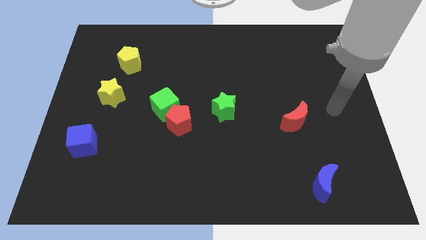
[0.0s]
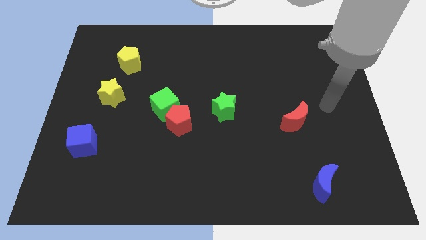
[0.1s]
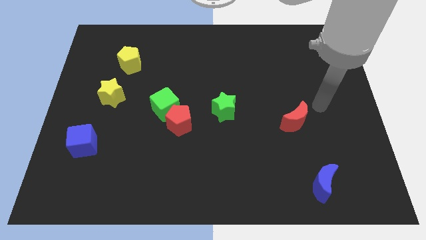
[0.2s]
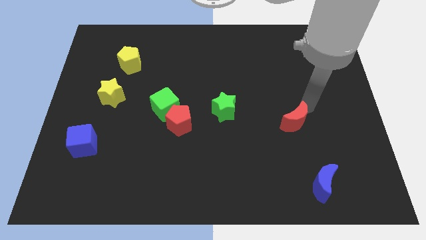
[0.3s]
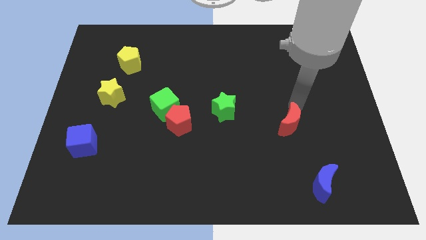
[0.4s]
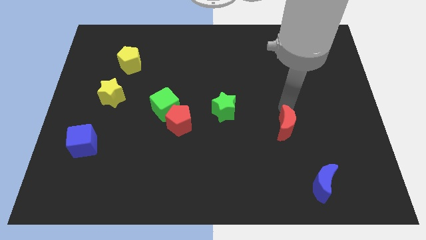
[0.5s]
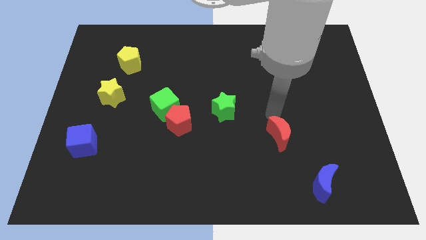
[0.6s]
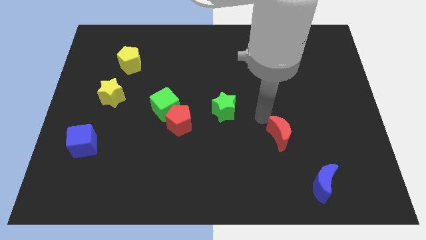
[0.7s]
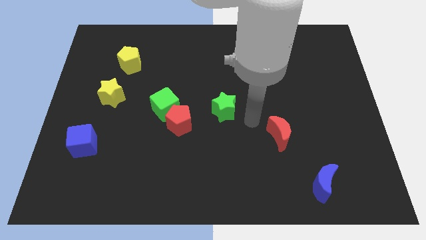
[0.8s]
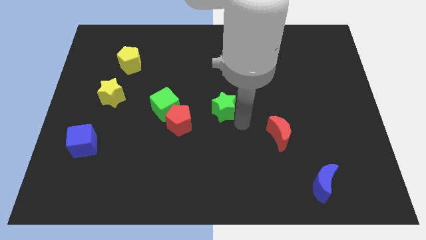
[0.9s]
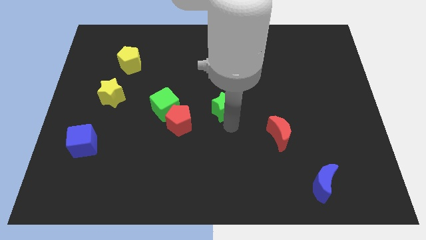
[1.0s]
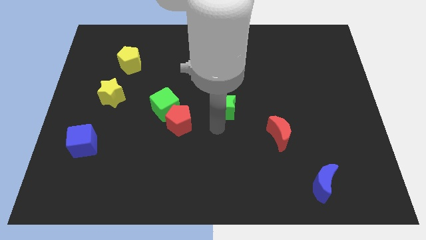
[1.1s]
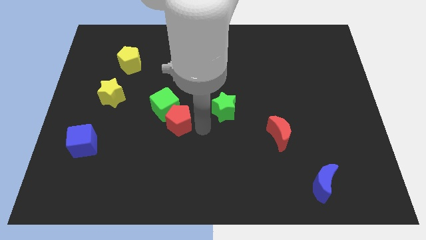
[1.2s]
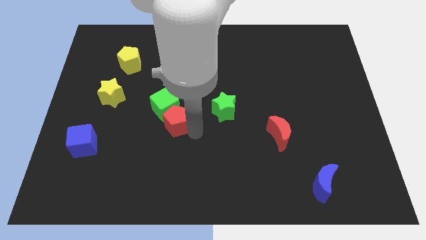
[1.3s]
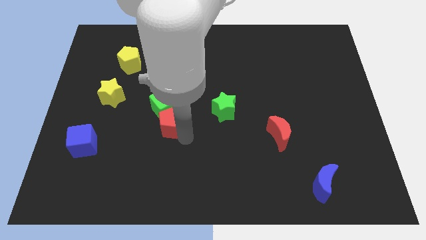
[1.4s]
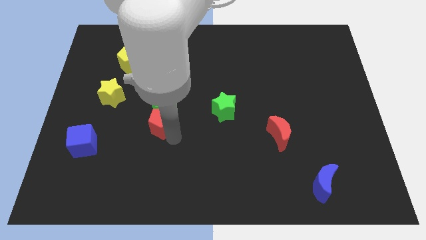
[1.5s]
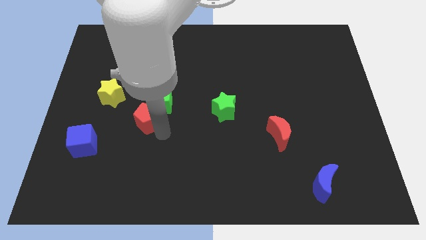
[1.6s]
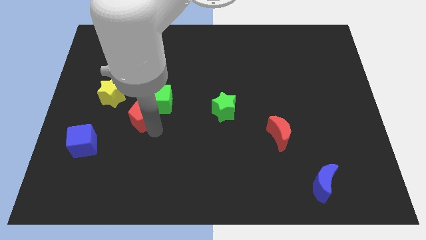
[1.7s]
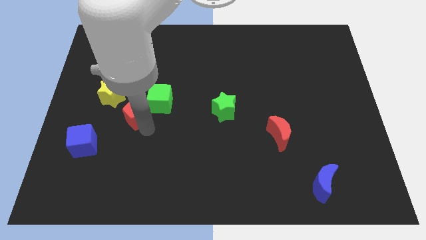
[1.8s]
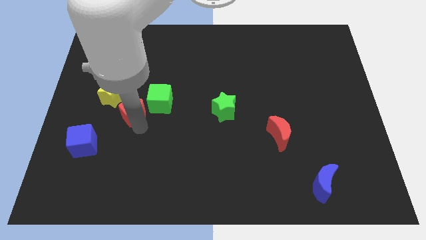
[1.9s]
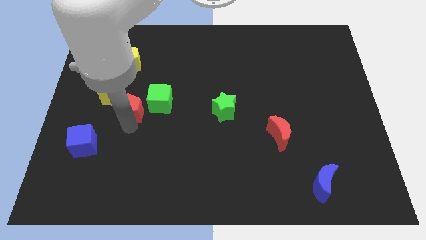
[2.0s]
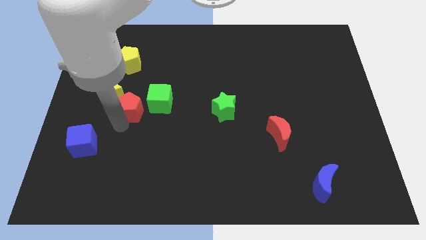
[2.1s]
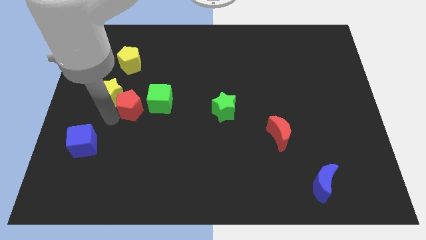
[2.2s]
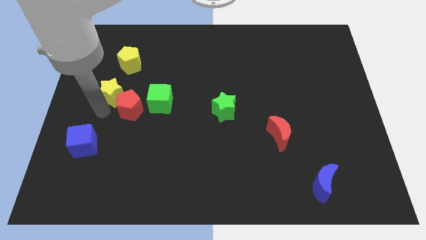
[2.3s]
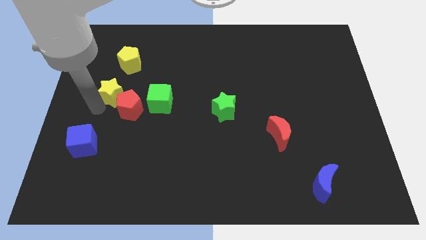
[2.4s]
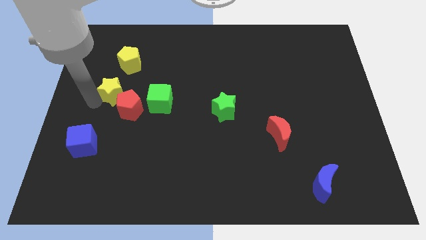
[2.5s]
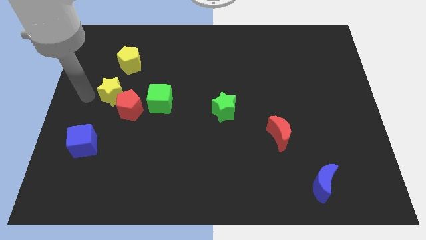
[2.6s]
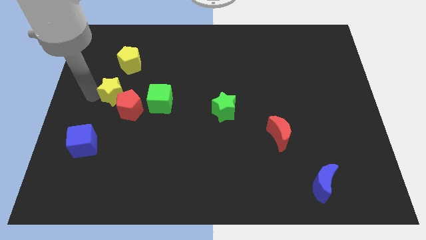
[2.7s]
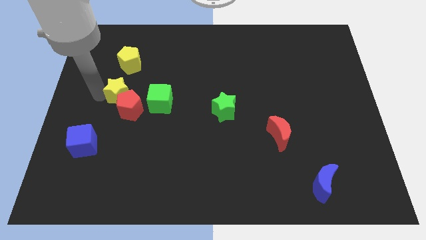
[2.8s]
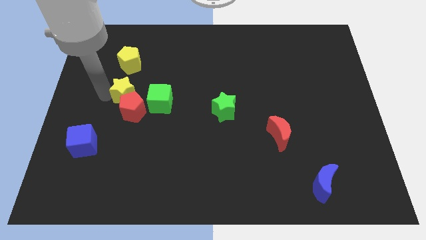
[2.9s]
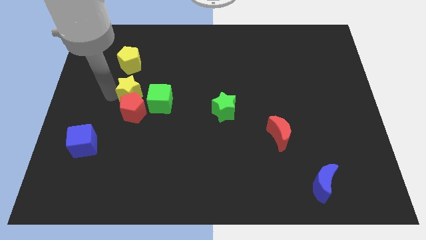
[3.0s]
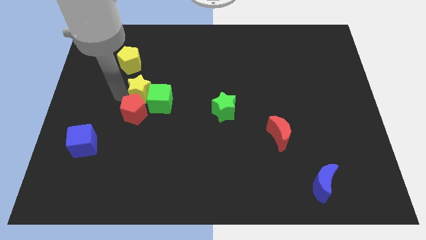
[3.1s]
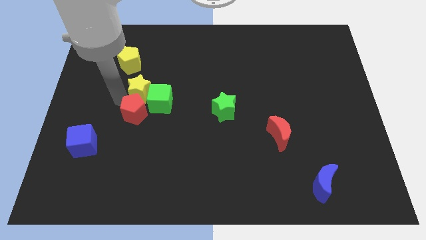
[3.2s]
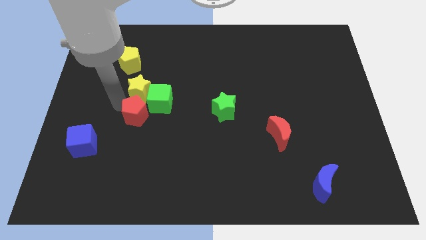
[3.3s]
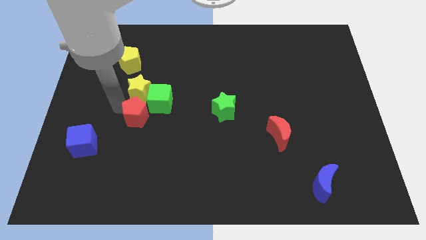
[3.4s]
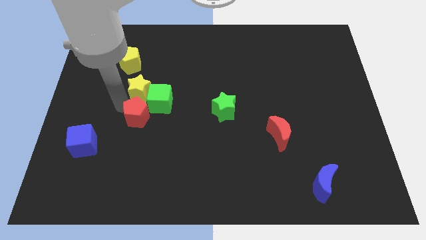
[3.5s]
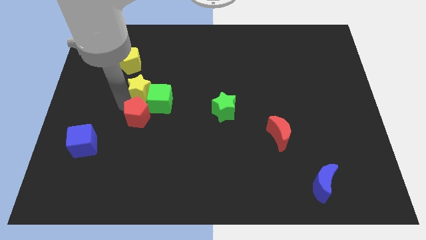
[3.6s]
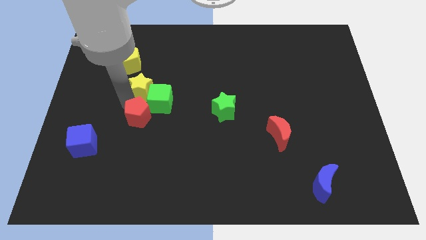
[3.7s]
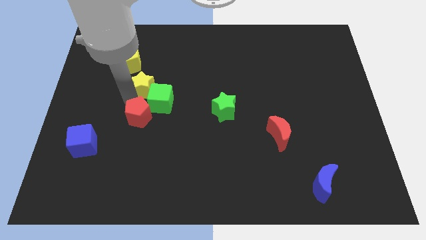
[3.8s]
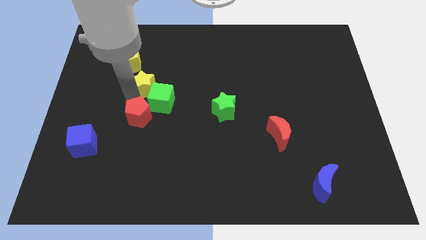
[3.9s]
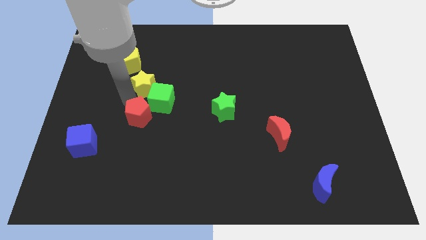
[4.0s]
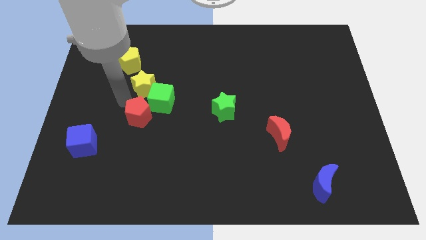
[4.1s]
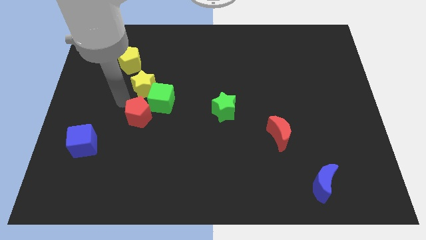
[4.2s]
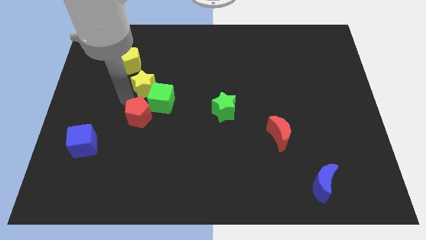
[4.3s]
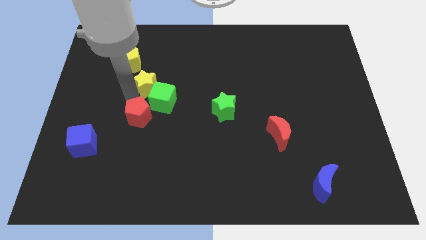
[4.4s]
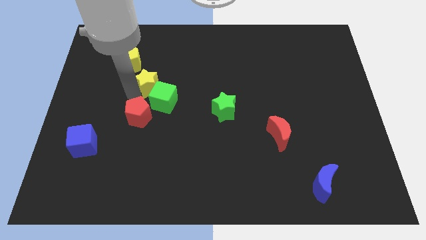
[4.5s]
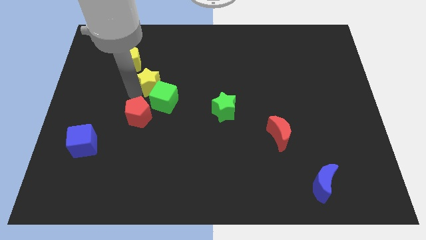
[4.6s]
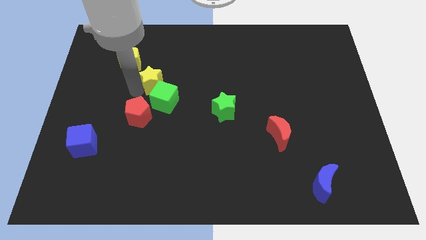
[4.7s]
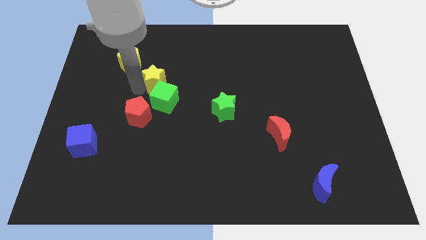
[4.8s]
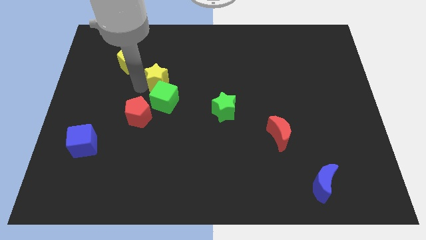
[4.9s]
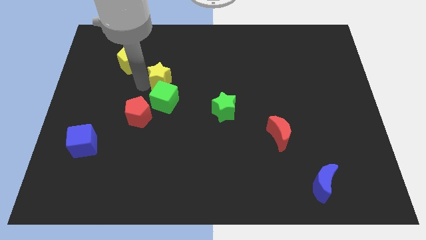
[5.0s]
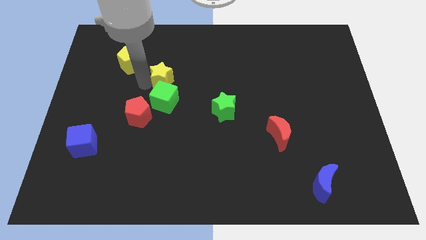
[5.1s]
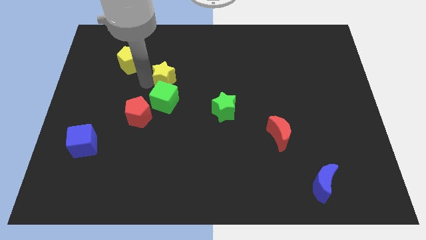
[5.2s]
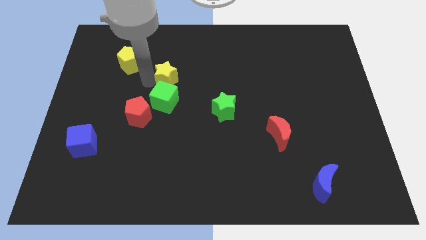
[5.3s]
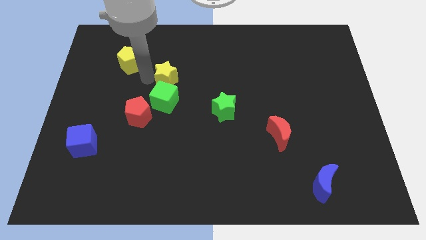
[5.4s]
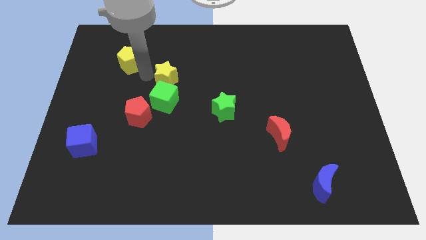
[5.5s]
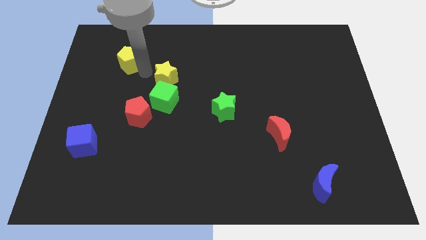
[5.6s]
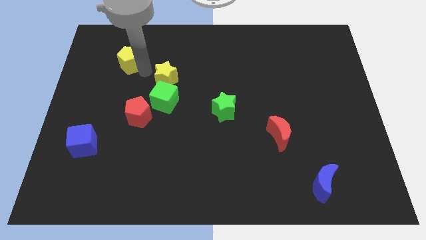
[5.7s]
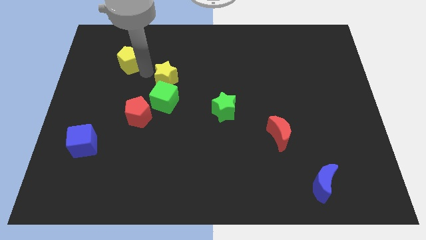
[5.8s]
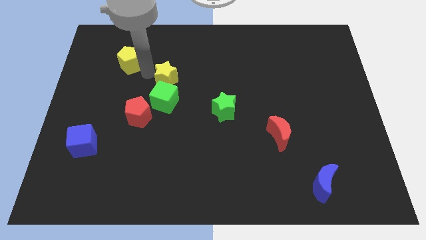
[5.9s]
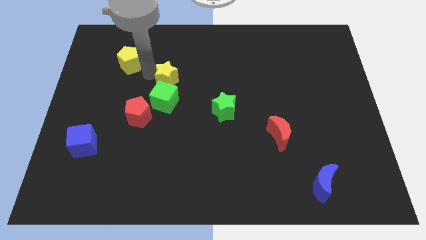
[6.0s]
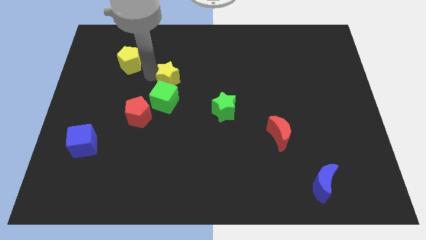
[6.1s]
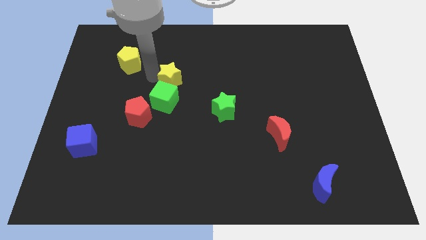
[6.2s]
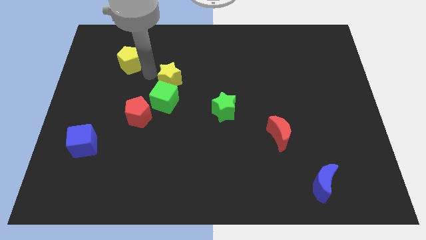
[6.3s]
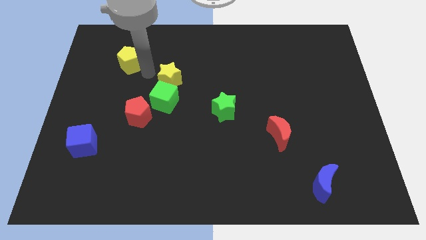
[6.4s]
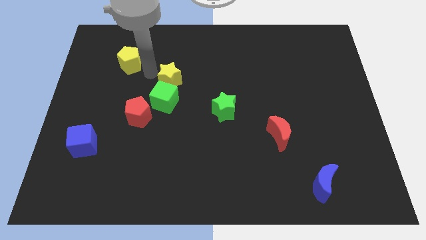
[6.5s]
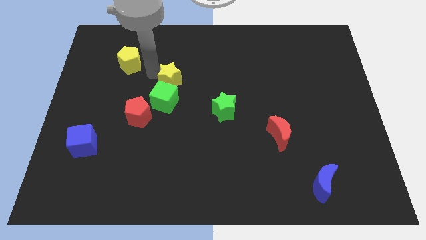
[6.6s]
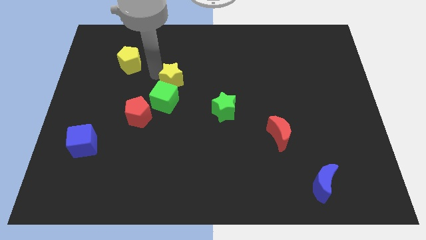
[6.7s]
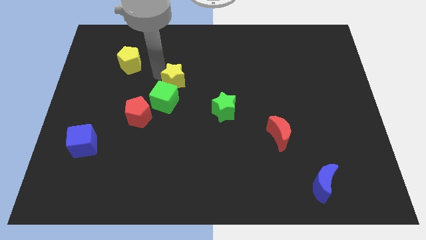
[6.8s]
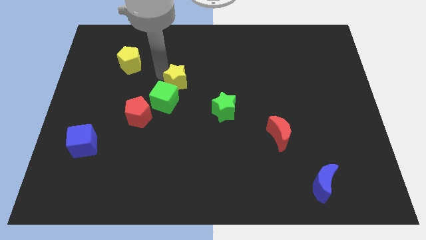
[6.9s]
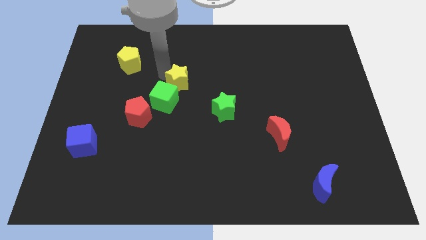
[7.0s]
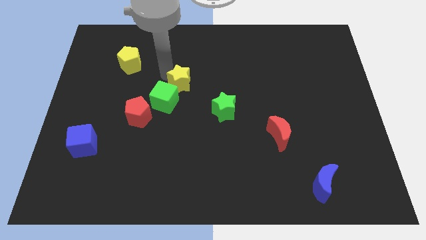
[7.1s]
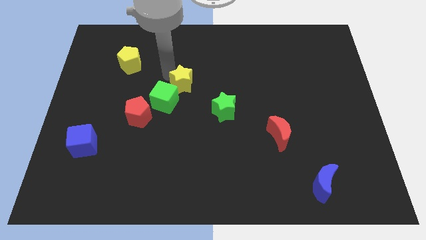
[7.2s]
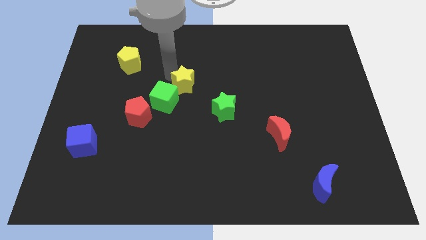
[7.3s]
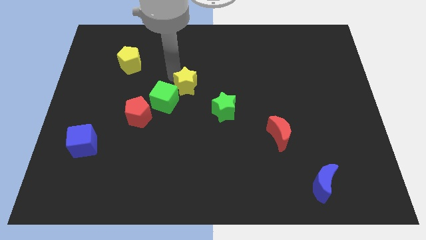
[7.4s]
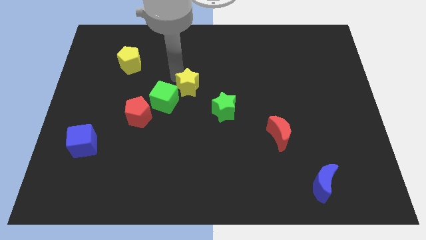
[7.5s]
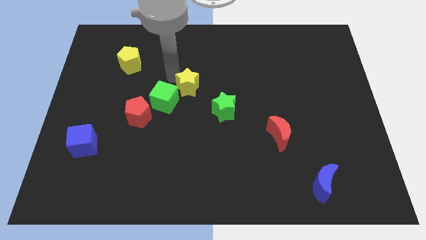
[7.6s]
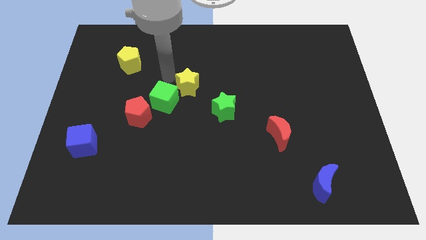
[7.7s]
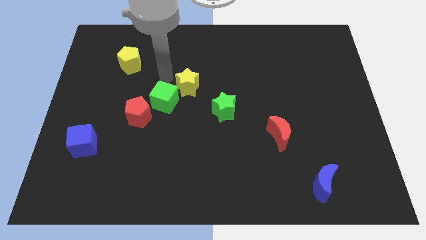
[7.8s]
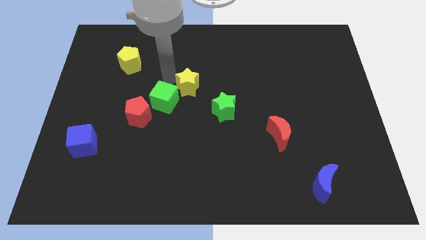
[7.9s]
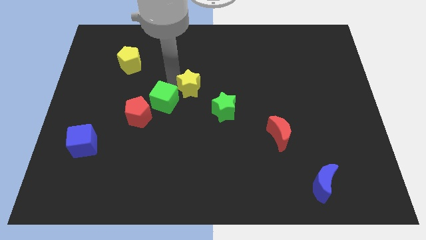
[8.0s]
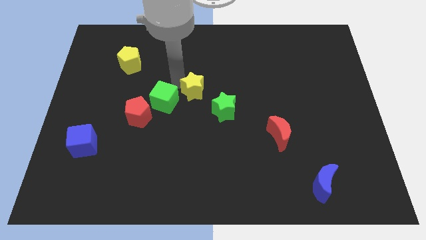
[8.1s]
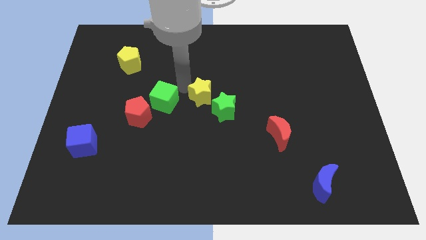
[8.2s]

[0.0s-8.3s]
slide the yellow star to the right
